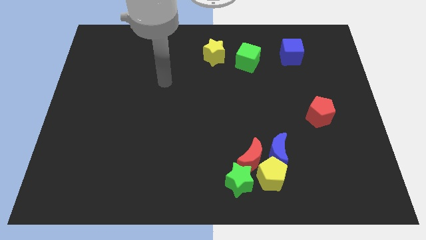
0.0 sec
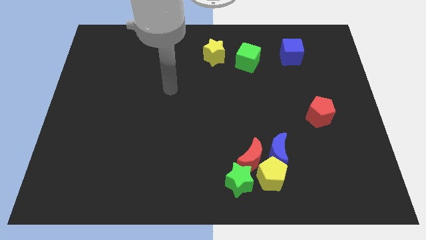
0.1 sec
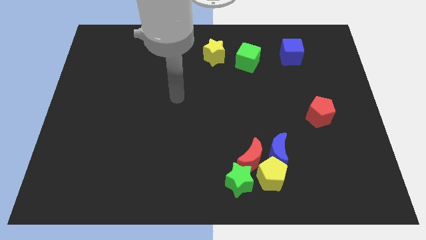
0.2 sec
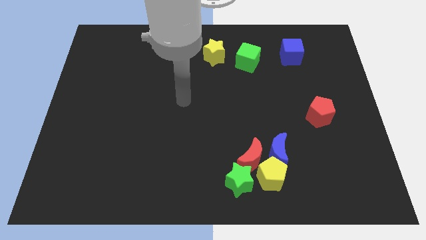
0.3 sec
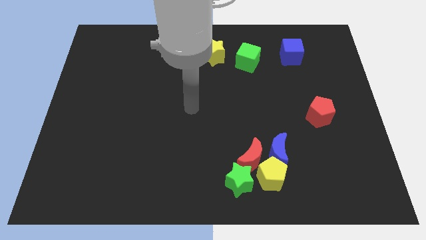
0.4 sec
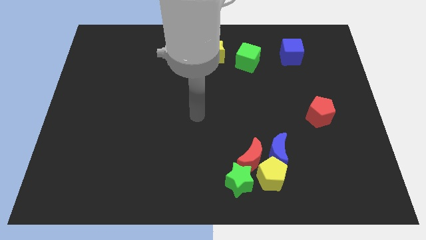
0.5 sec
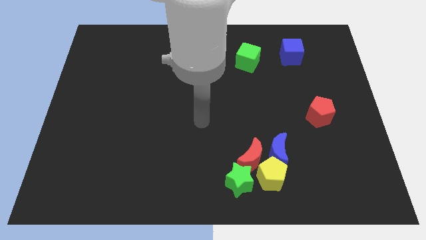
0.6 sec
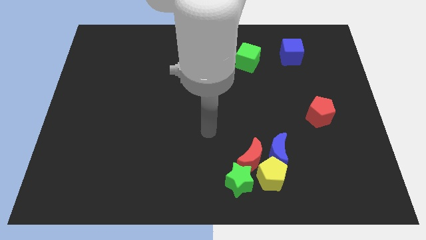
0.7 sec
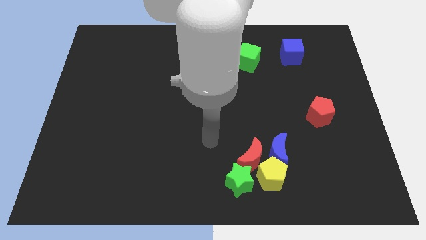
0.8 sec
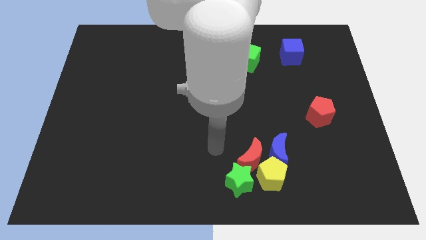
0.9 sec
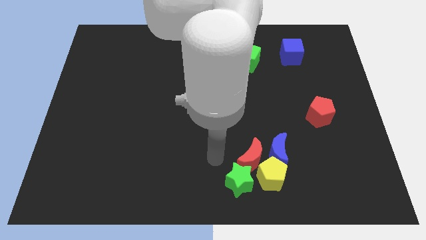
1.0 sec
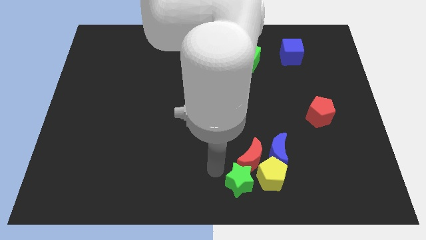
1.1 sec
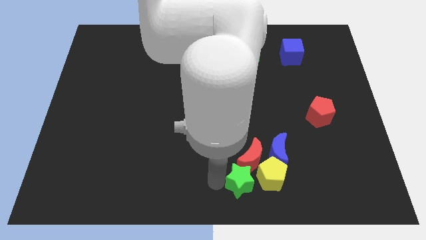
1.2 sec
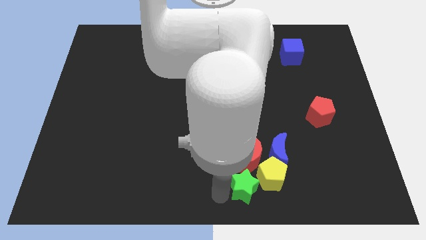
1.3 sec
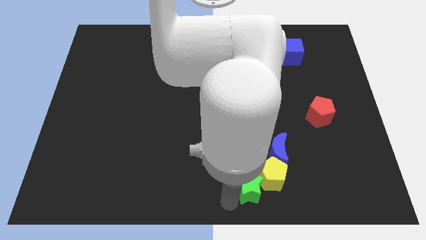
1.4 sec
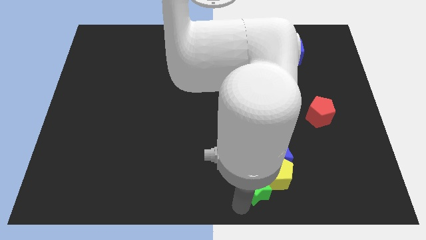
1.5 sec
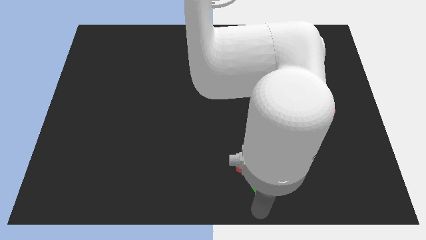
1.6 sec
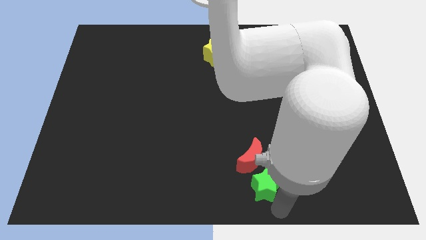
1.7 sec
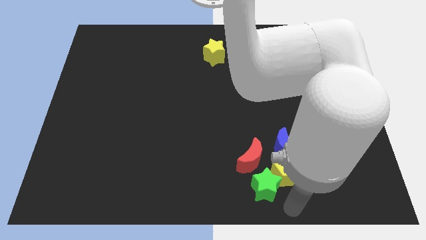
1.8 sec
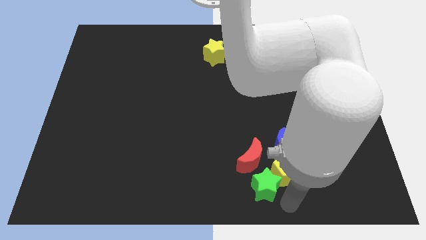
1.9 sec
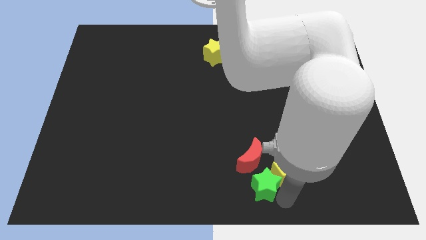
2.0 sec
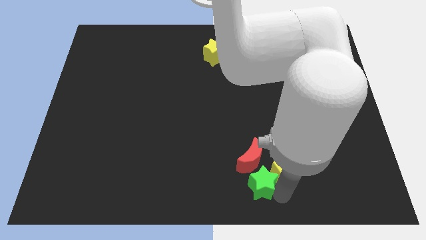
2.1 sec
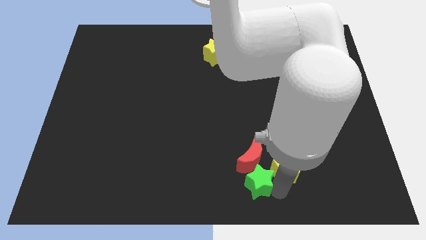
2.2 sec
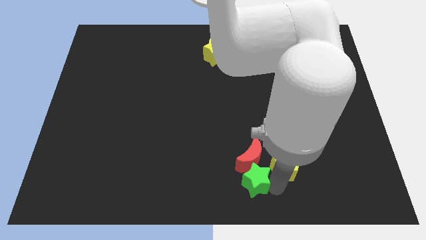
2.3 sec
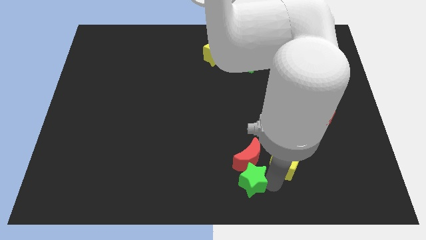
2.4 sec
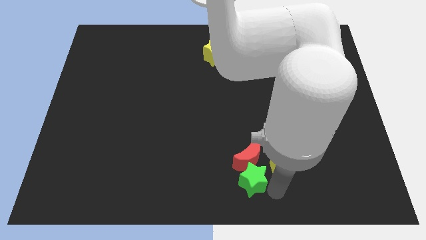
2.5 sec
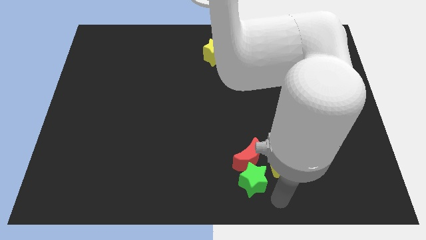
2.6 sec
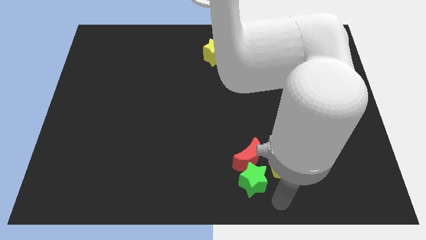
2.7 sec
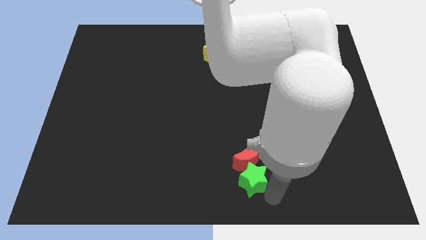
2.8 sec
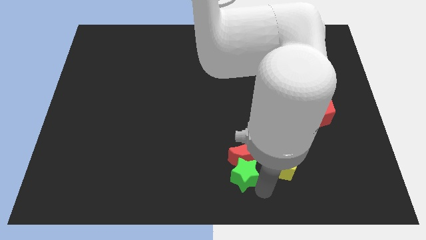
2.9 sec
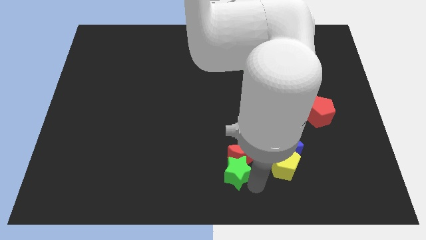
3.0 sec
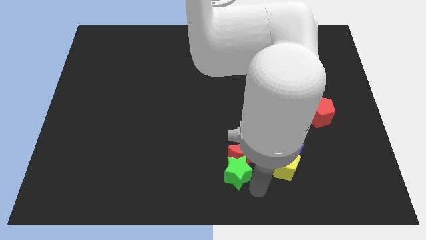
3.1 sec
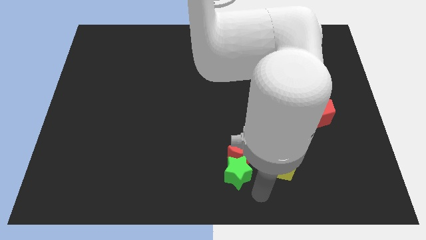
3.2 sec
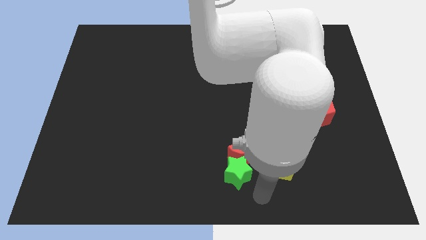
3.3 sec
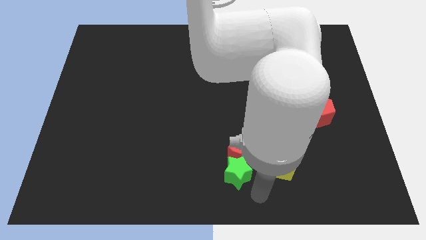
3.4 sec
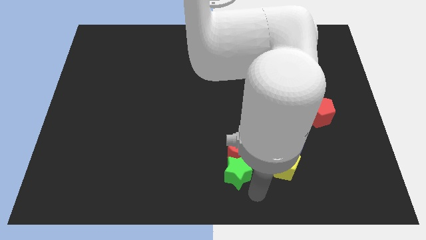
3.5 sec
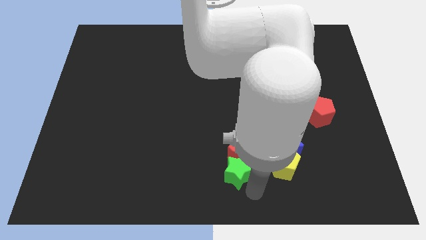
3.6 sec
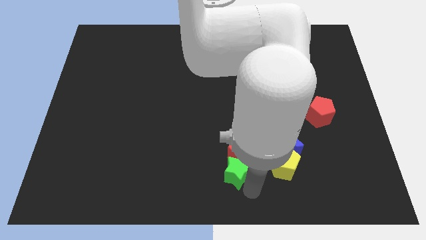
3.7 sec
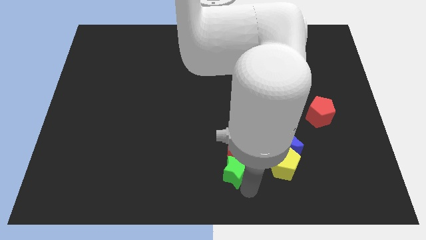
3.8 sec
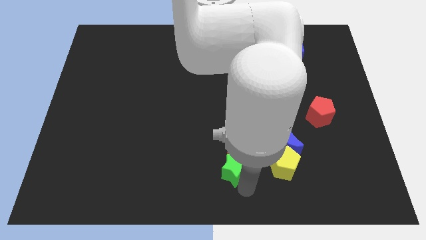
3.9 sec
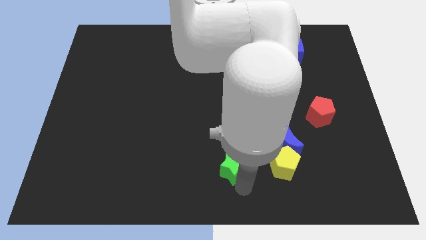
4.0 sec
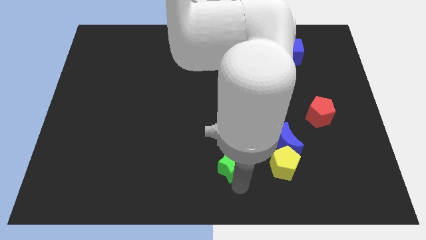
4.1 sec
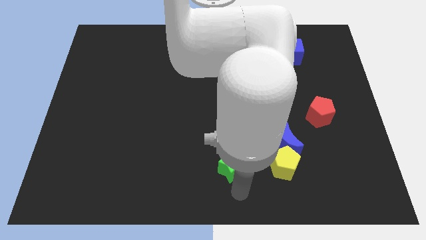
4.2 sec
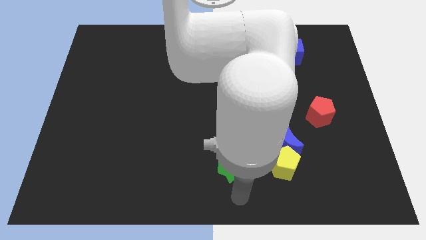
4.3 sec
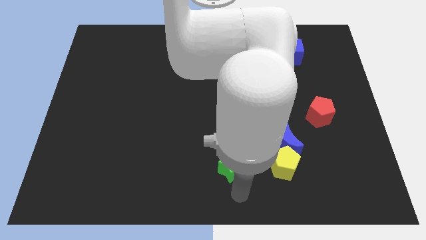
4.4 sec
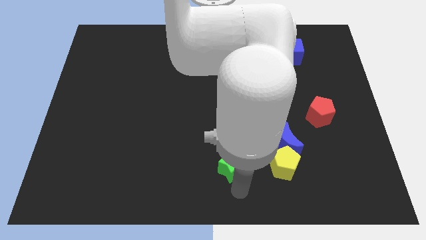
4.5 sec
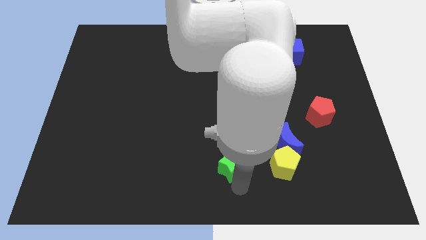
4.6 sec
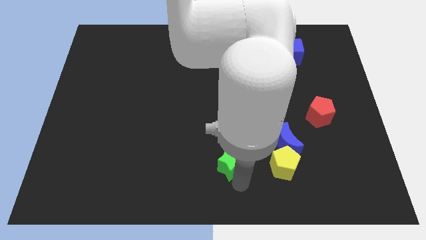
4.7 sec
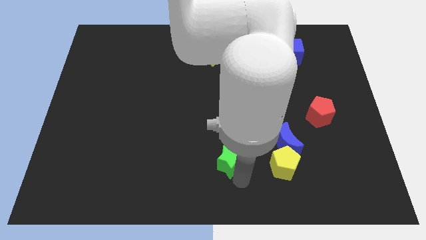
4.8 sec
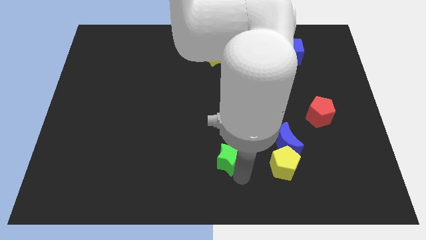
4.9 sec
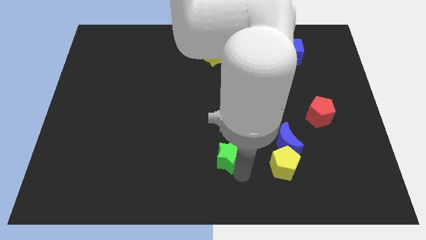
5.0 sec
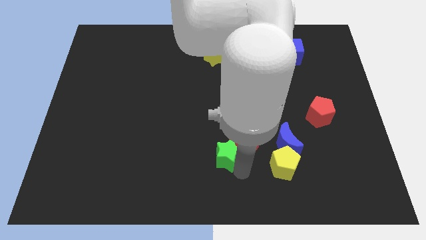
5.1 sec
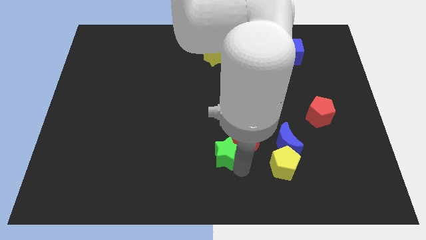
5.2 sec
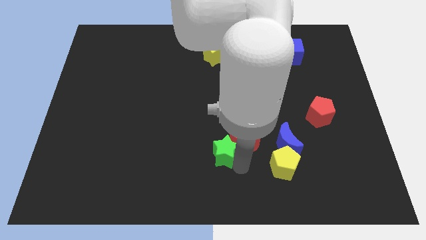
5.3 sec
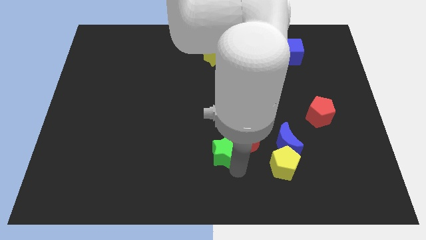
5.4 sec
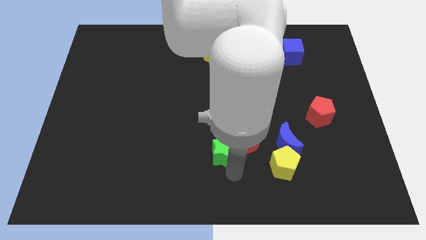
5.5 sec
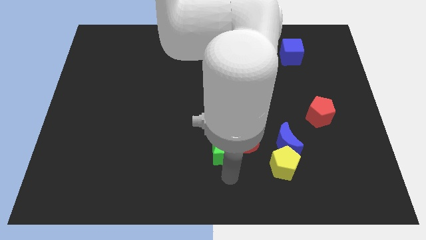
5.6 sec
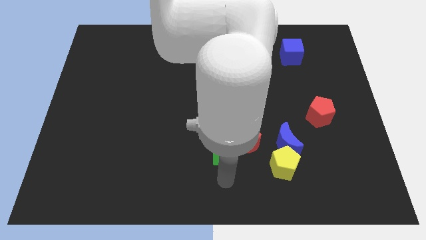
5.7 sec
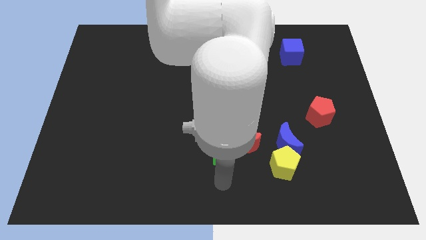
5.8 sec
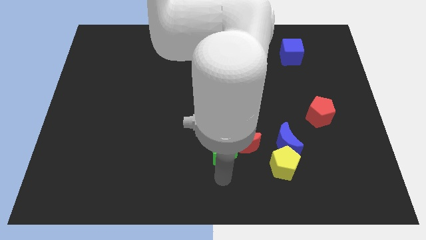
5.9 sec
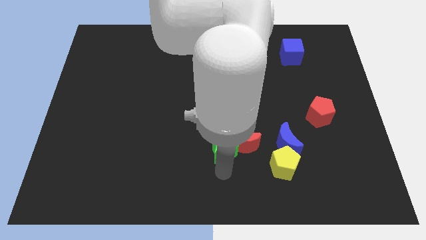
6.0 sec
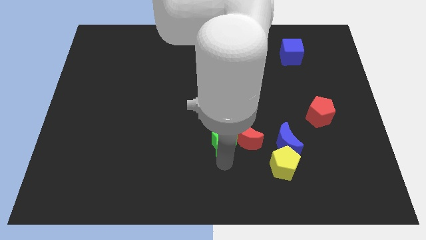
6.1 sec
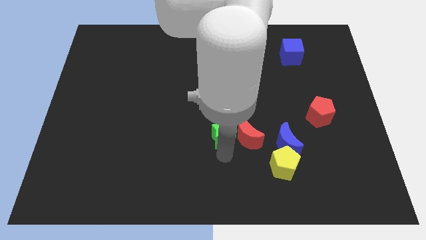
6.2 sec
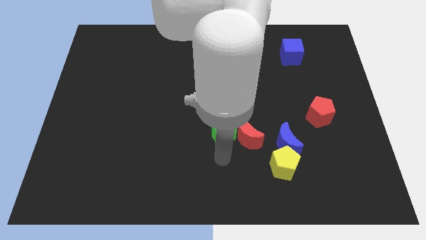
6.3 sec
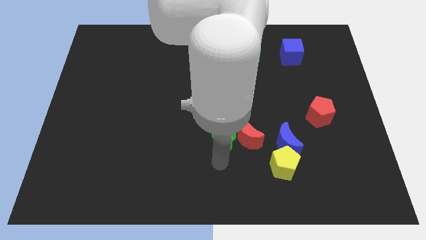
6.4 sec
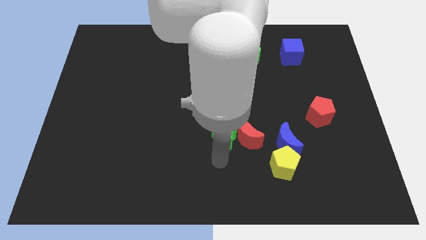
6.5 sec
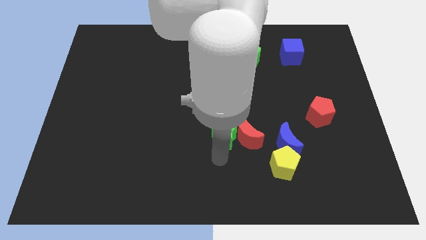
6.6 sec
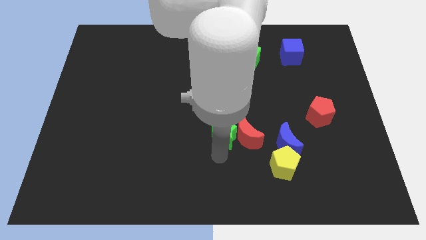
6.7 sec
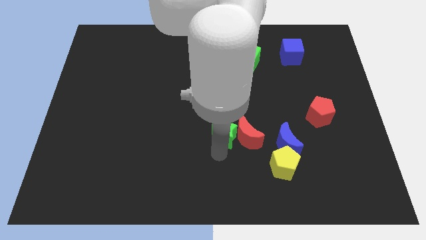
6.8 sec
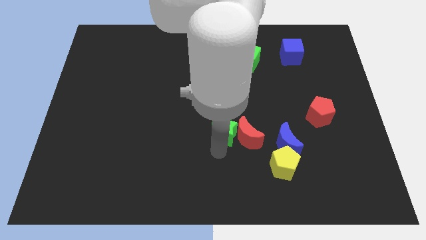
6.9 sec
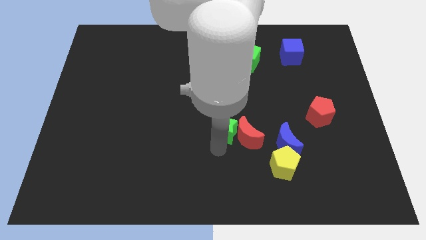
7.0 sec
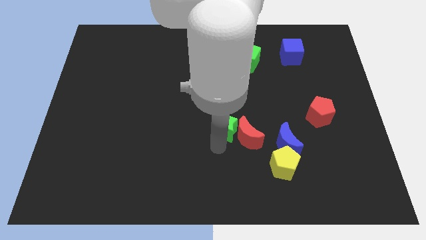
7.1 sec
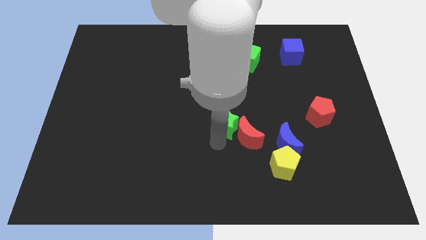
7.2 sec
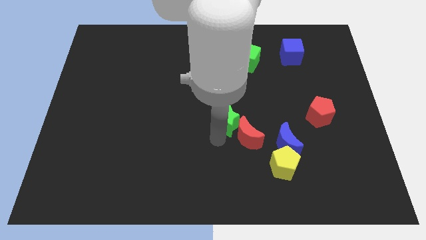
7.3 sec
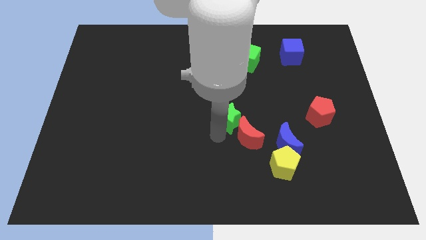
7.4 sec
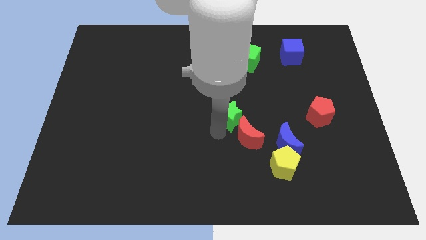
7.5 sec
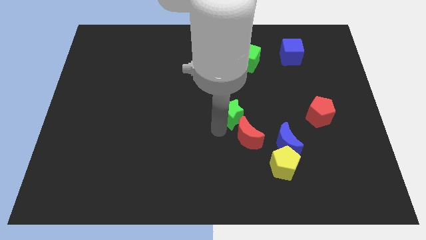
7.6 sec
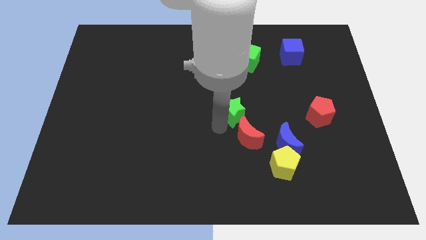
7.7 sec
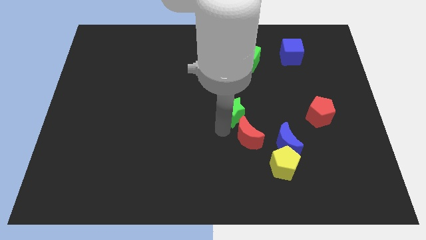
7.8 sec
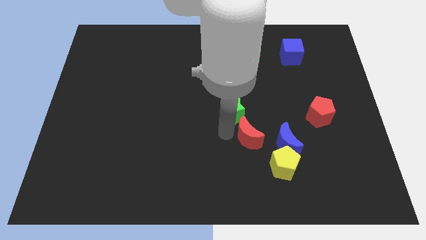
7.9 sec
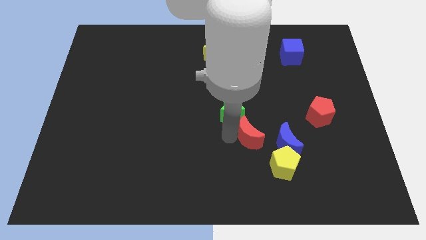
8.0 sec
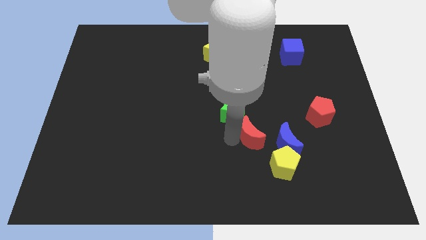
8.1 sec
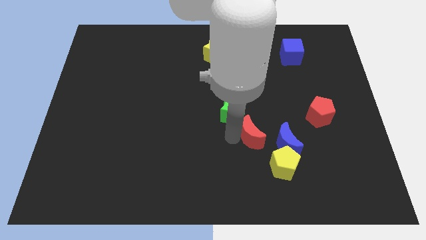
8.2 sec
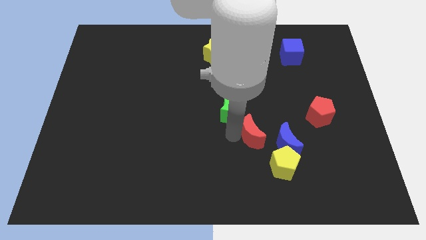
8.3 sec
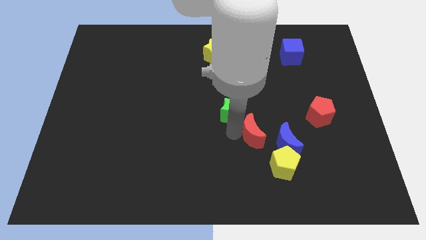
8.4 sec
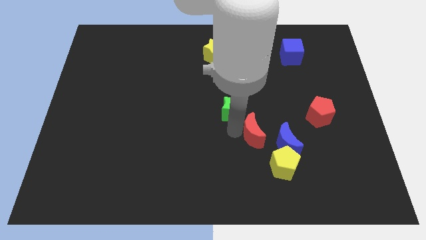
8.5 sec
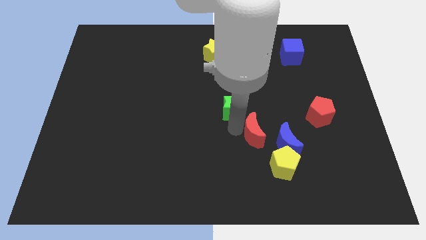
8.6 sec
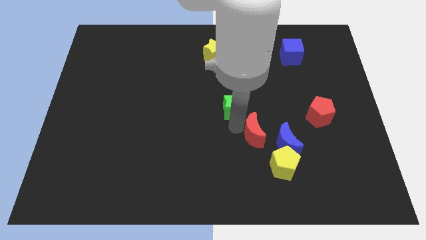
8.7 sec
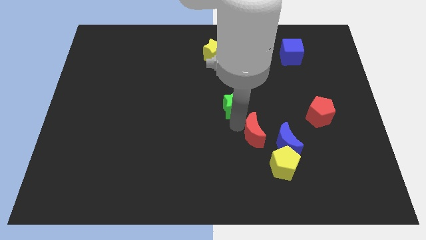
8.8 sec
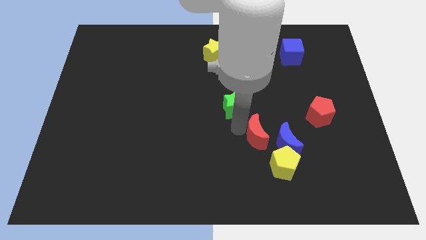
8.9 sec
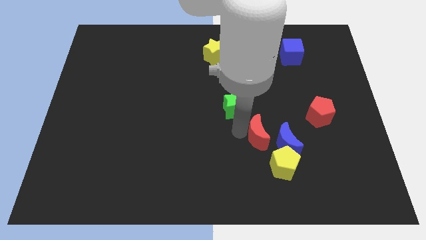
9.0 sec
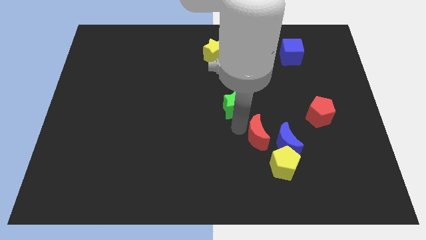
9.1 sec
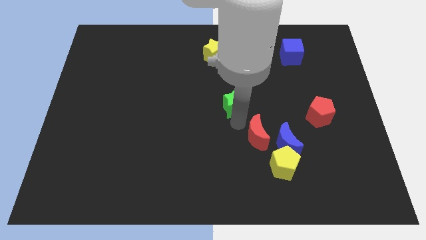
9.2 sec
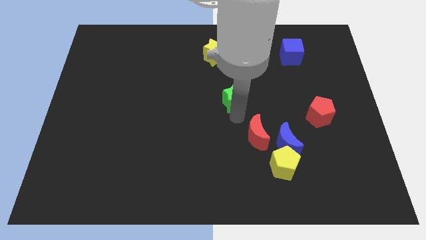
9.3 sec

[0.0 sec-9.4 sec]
push the green star up
